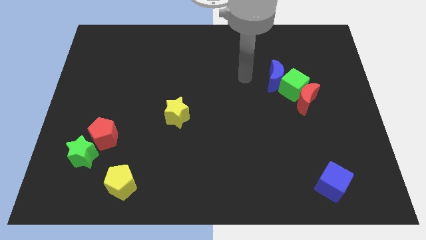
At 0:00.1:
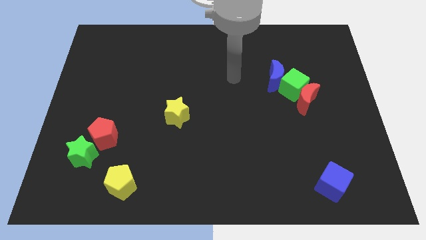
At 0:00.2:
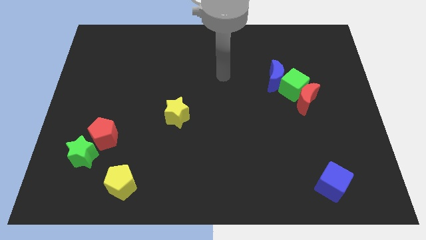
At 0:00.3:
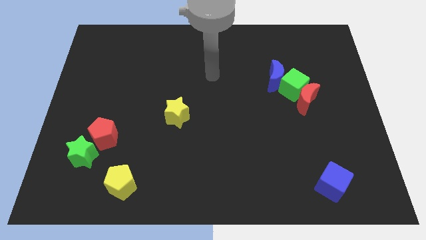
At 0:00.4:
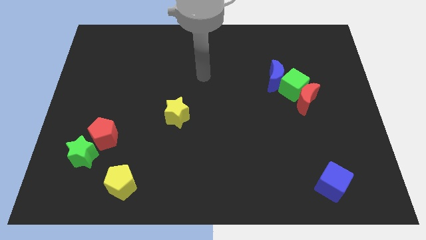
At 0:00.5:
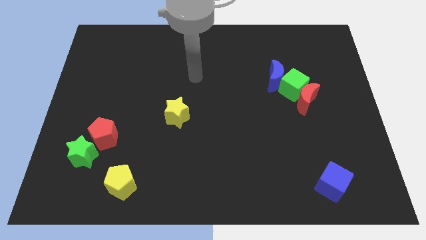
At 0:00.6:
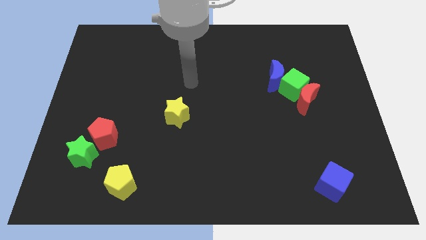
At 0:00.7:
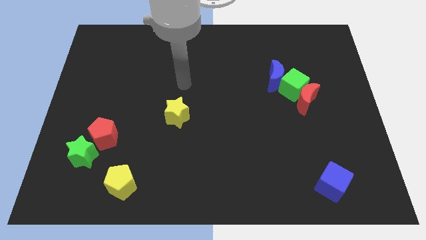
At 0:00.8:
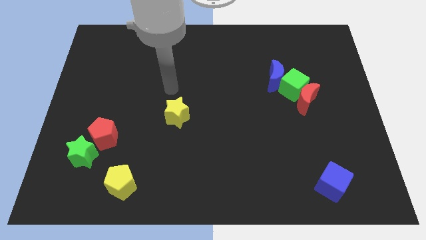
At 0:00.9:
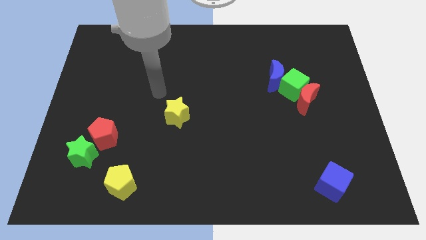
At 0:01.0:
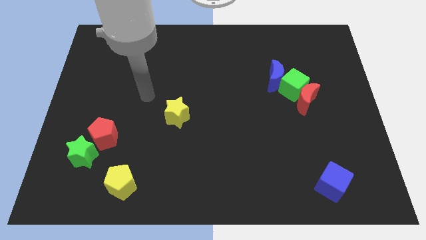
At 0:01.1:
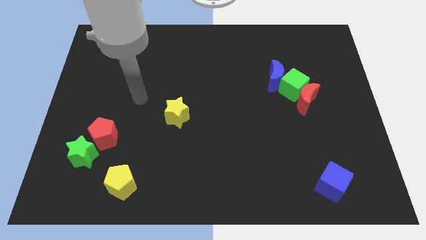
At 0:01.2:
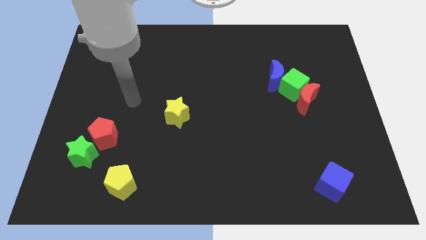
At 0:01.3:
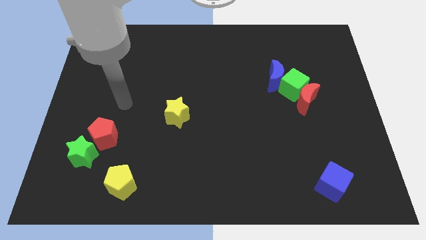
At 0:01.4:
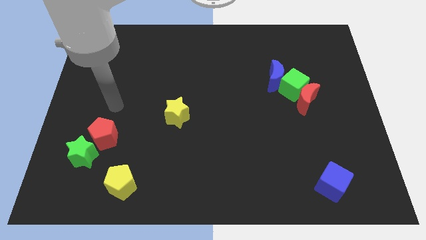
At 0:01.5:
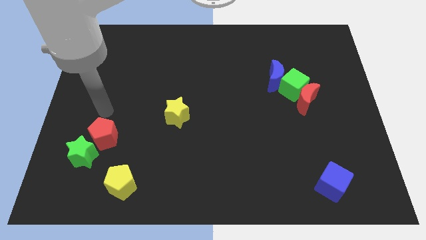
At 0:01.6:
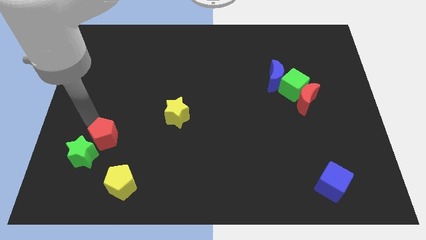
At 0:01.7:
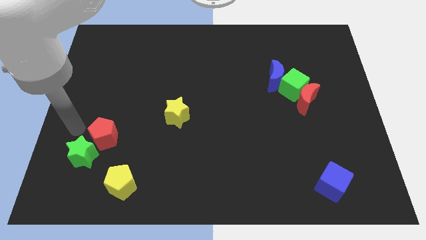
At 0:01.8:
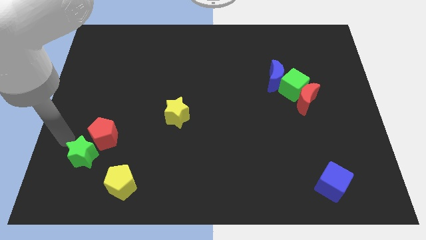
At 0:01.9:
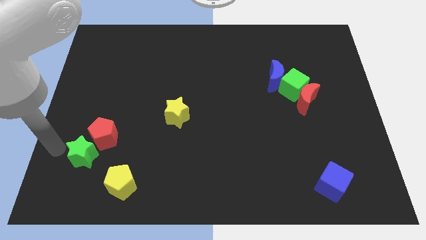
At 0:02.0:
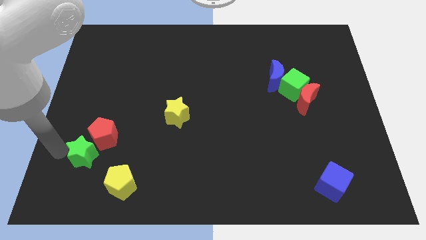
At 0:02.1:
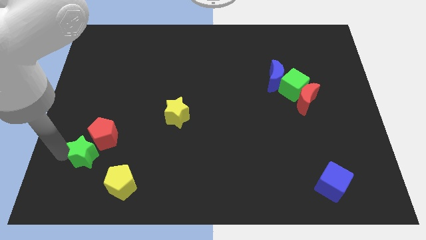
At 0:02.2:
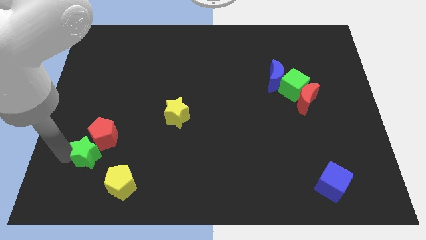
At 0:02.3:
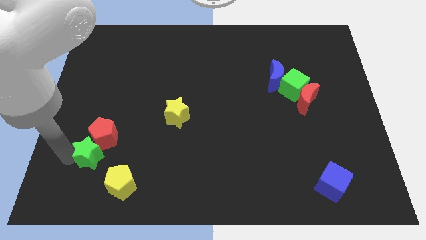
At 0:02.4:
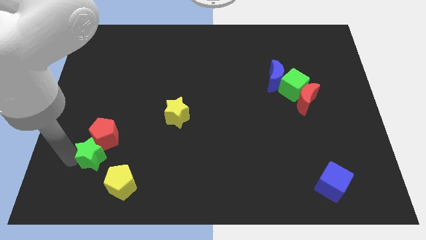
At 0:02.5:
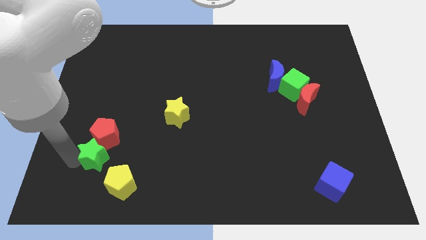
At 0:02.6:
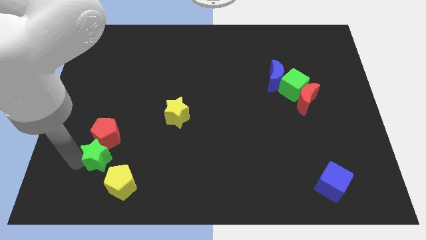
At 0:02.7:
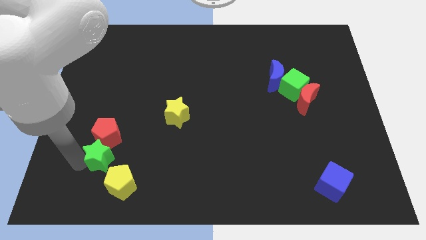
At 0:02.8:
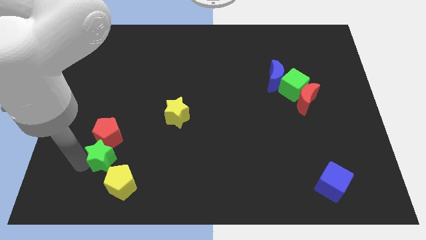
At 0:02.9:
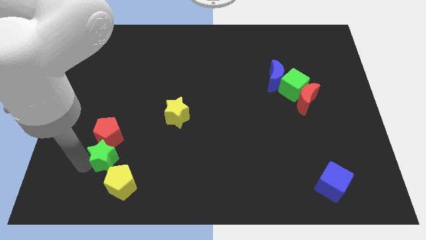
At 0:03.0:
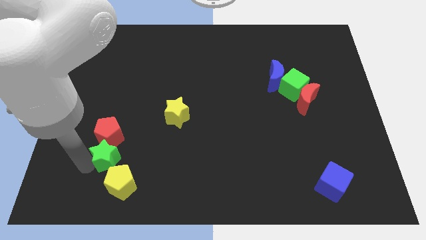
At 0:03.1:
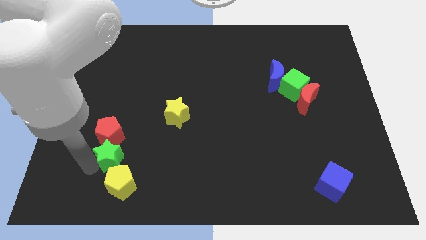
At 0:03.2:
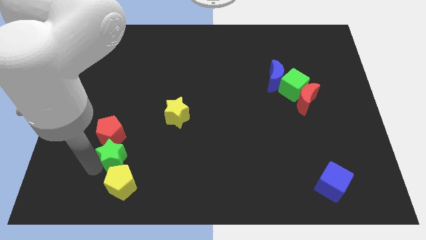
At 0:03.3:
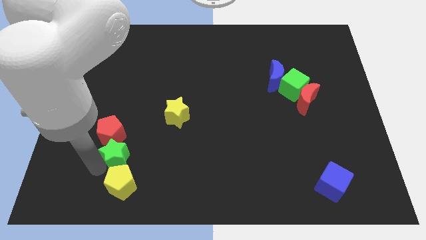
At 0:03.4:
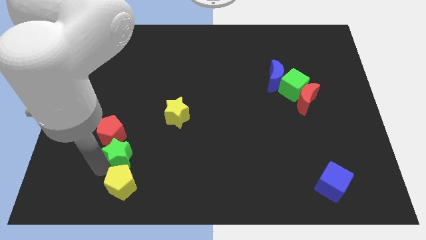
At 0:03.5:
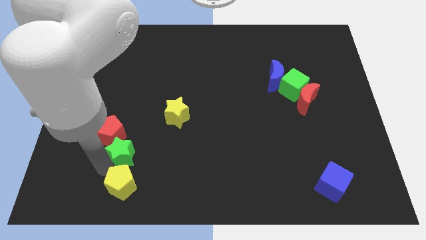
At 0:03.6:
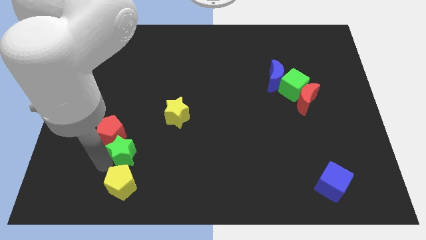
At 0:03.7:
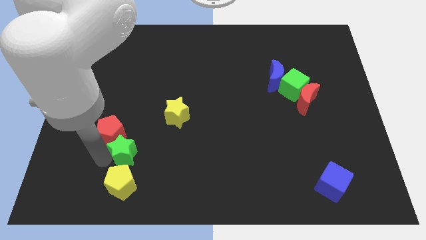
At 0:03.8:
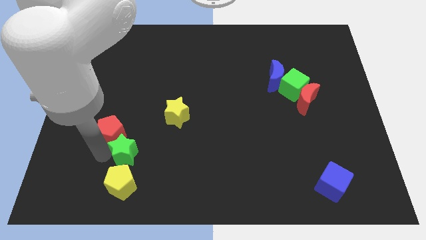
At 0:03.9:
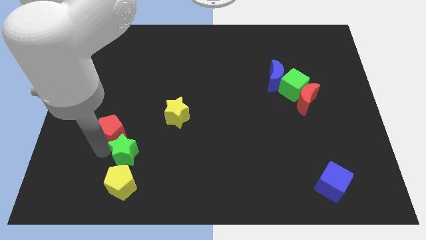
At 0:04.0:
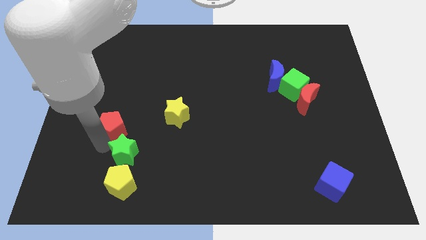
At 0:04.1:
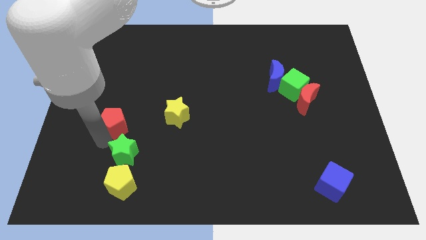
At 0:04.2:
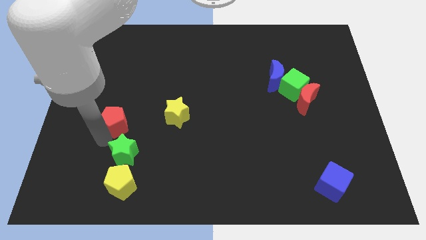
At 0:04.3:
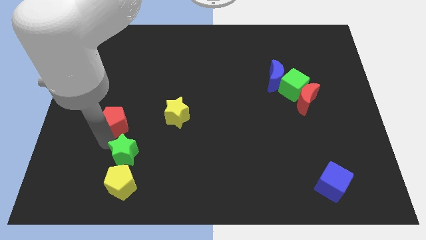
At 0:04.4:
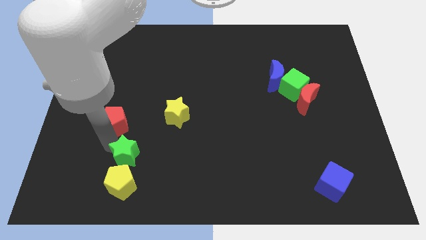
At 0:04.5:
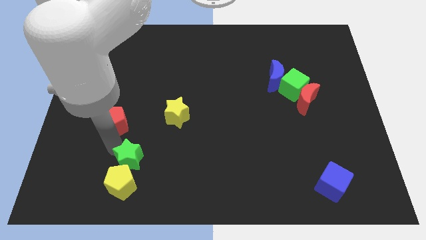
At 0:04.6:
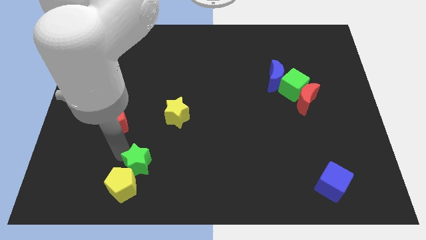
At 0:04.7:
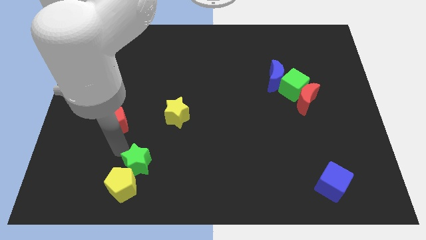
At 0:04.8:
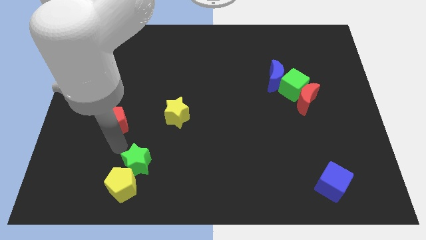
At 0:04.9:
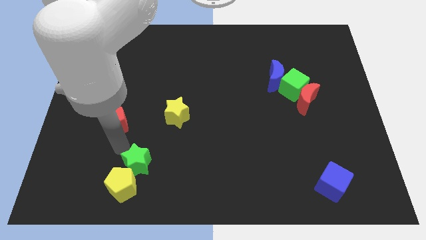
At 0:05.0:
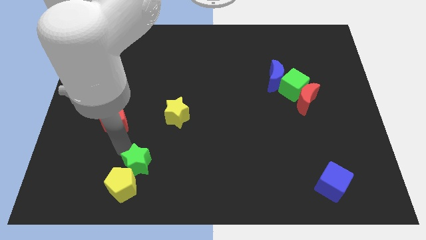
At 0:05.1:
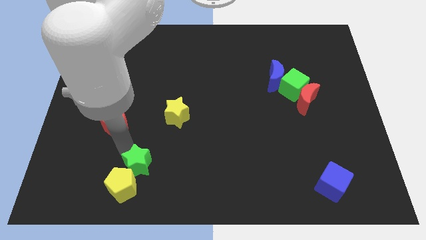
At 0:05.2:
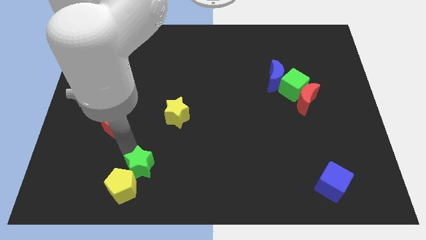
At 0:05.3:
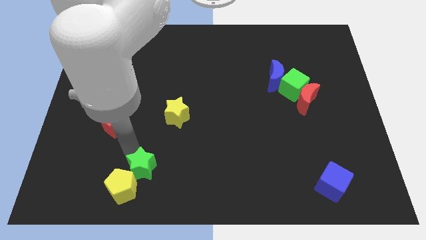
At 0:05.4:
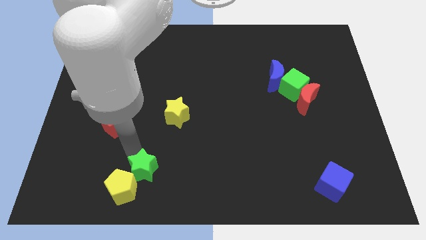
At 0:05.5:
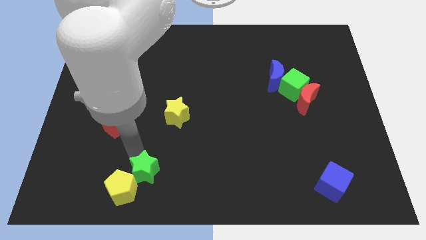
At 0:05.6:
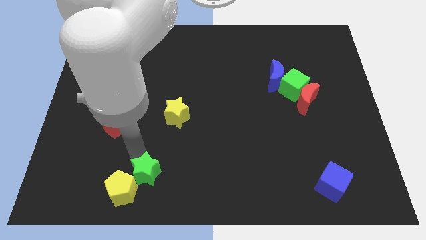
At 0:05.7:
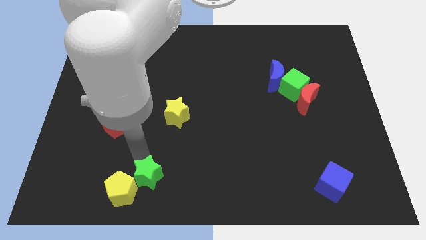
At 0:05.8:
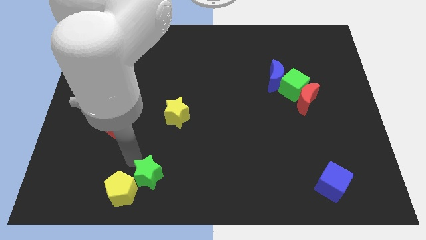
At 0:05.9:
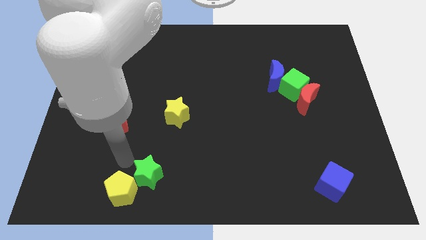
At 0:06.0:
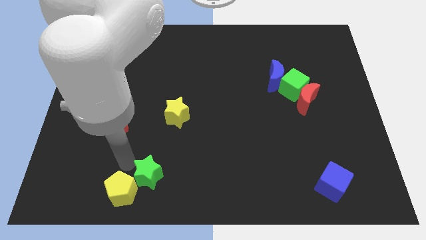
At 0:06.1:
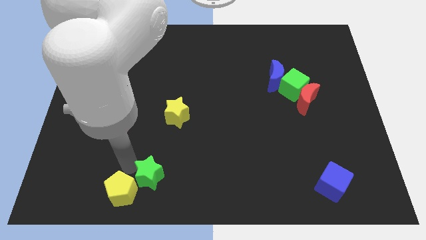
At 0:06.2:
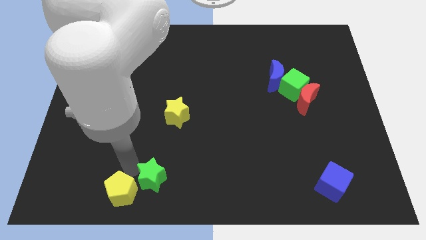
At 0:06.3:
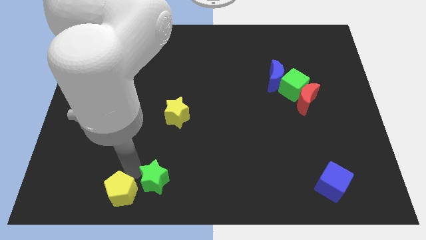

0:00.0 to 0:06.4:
push the green star to the bottom side
